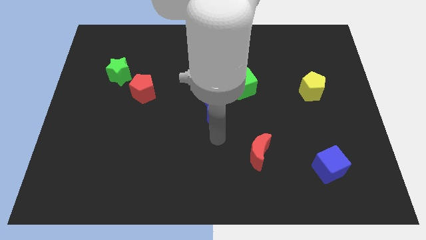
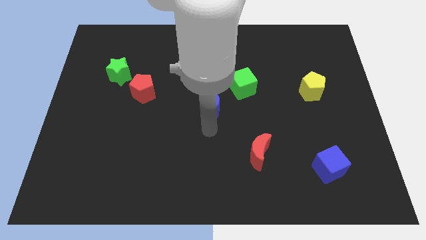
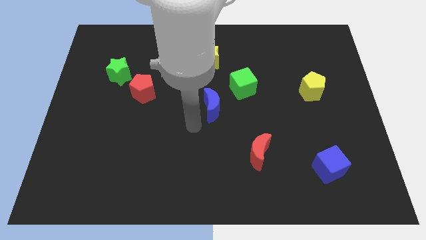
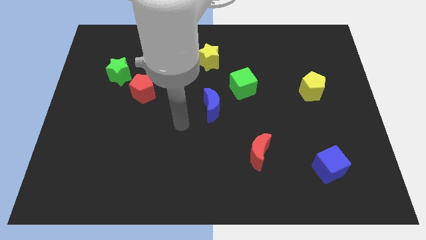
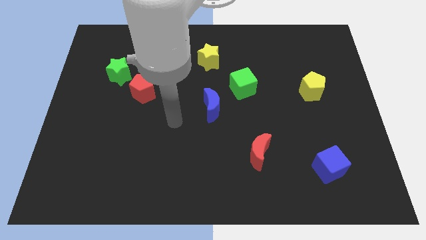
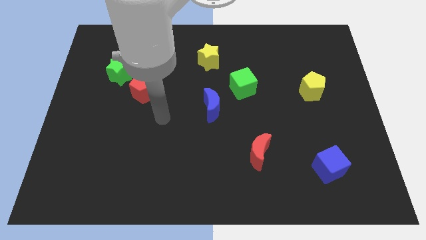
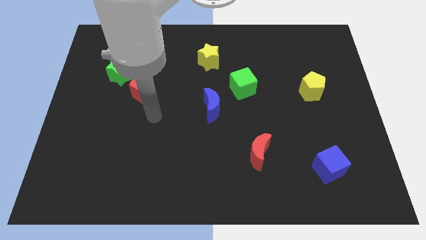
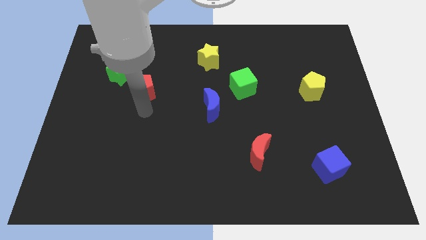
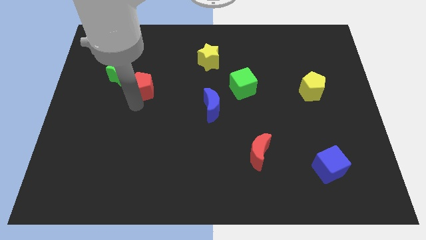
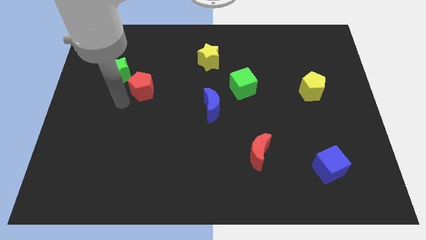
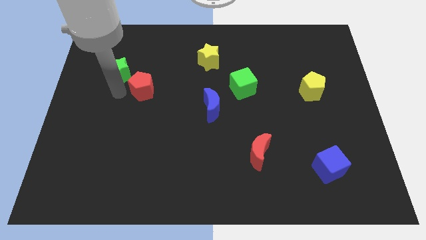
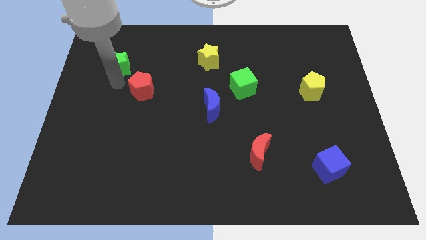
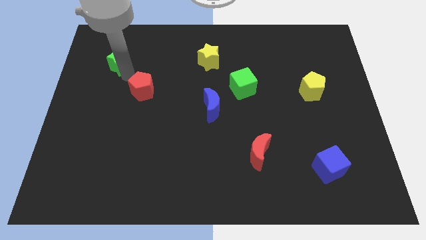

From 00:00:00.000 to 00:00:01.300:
move the red pentagon away from the green star

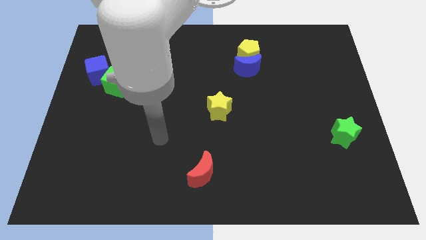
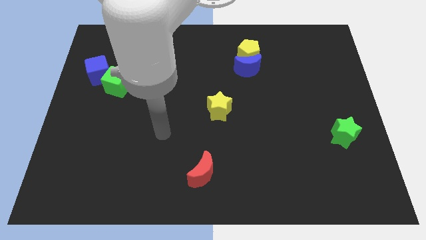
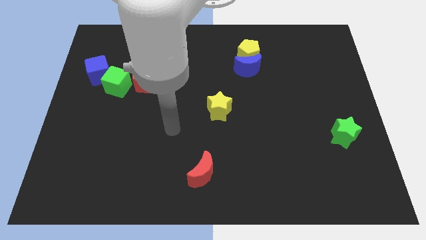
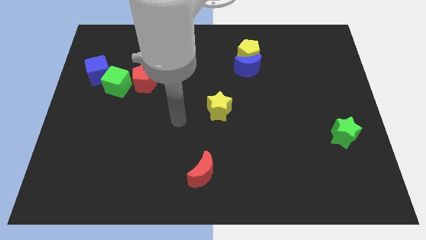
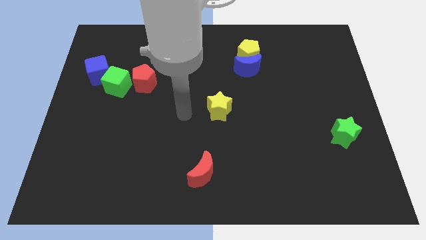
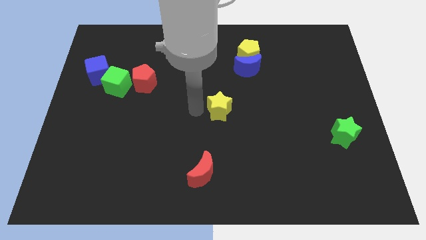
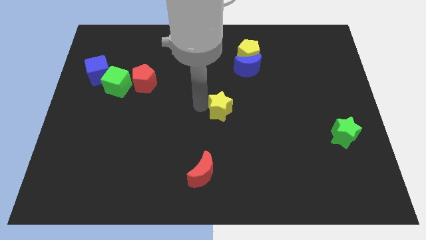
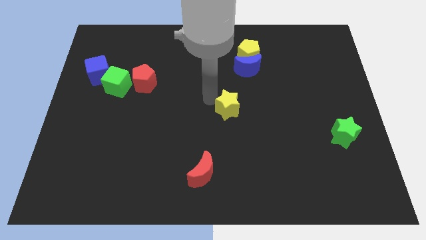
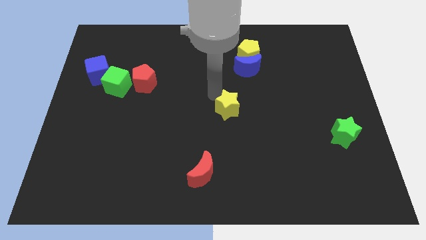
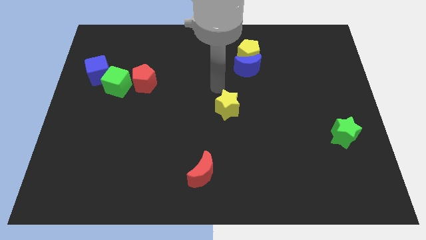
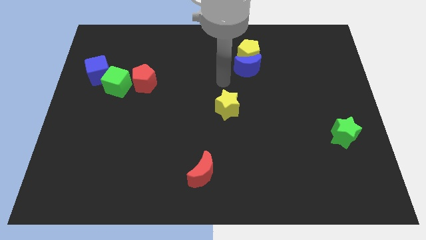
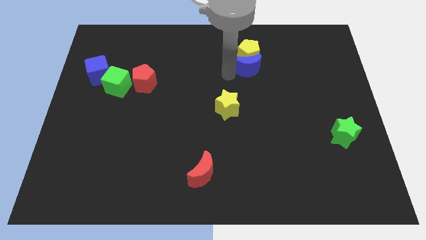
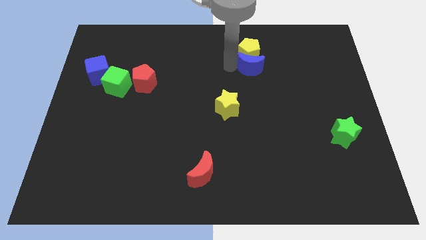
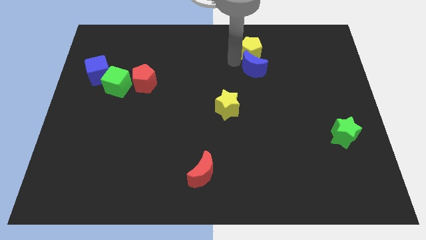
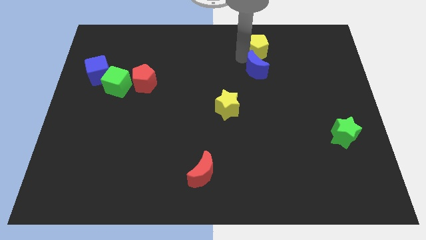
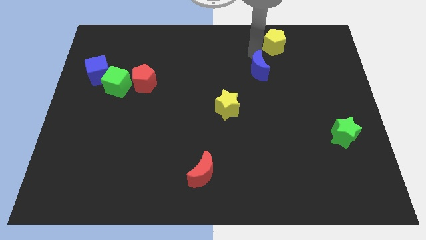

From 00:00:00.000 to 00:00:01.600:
move the blue moon away from the yellow pentagon

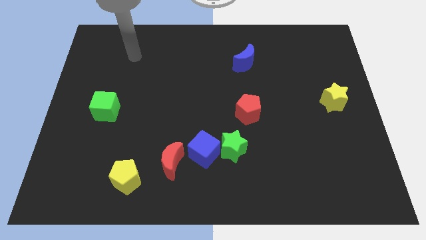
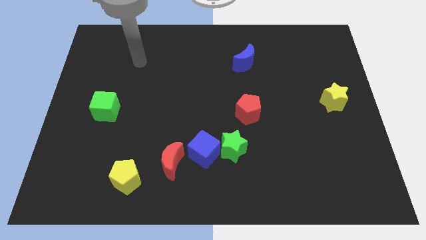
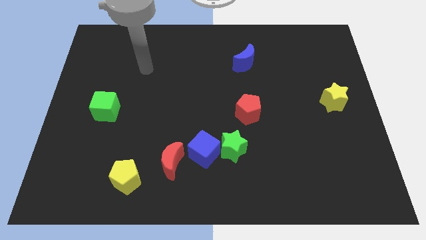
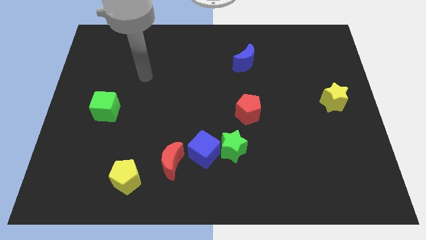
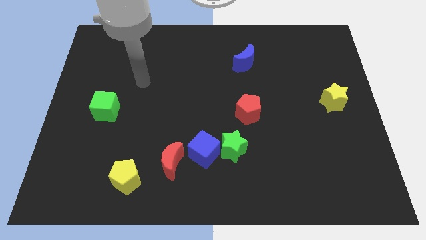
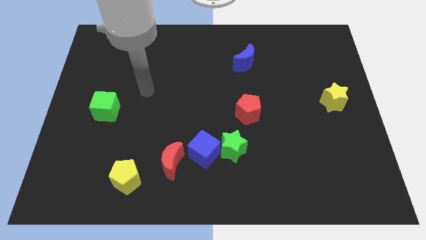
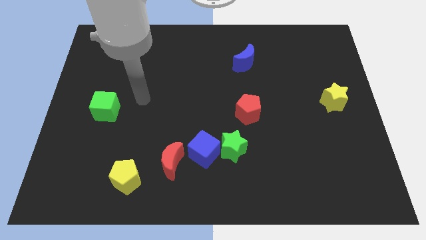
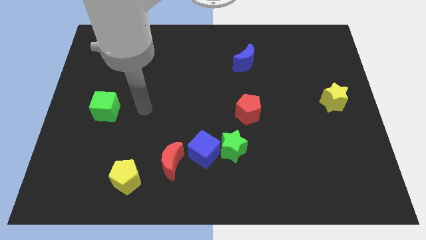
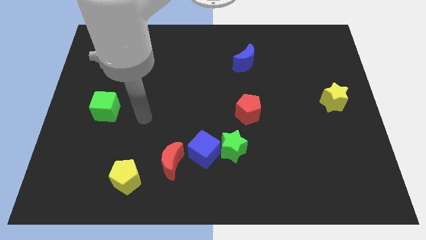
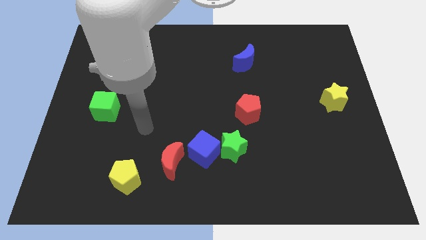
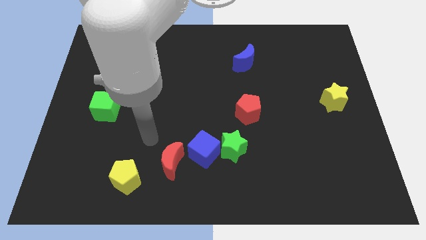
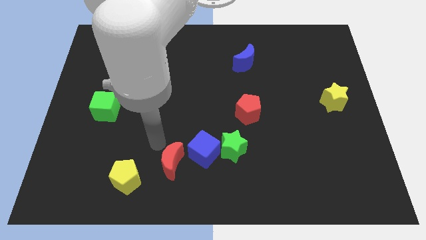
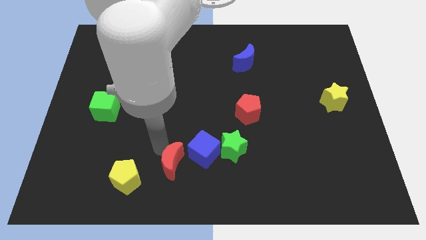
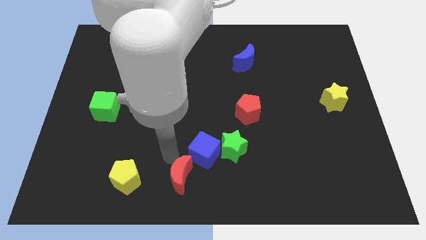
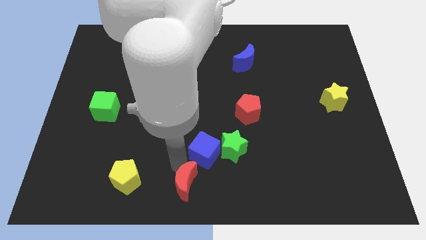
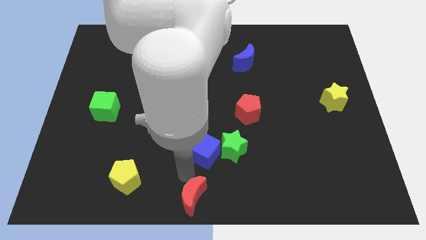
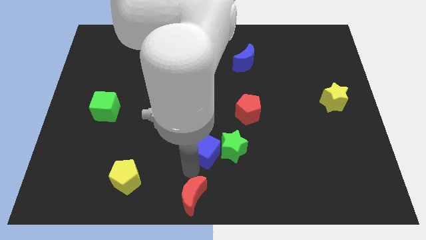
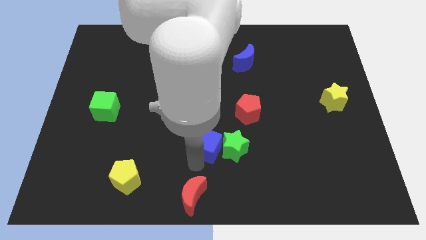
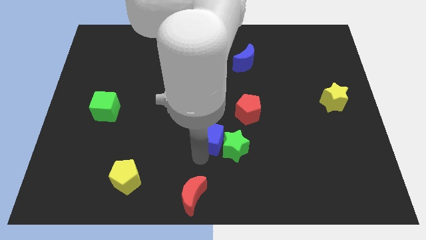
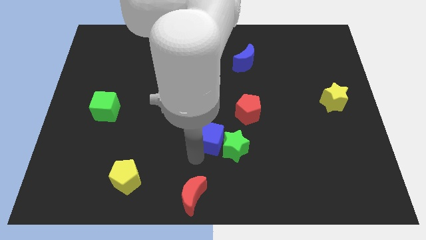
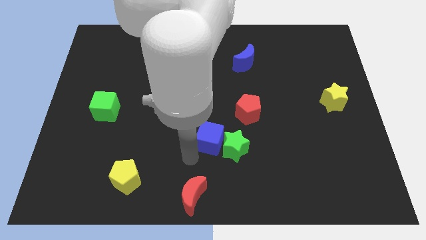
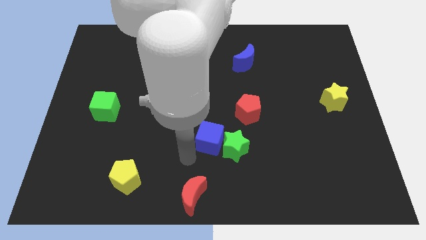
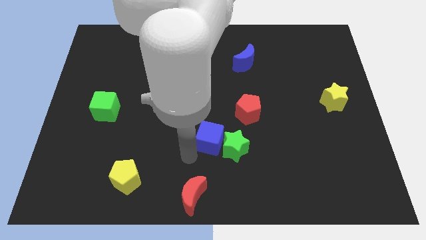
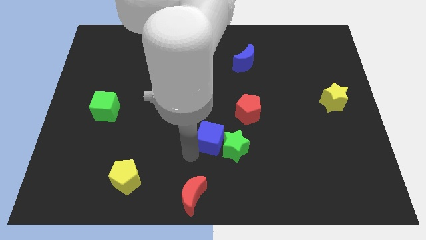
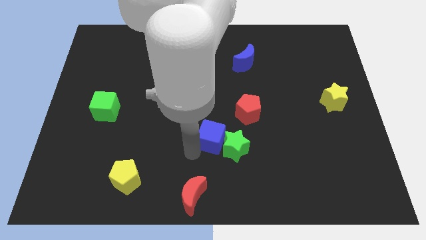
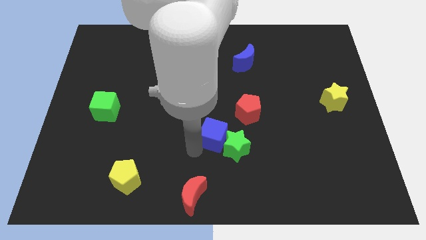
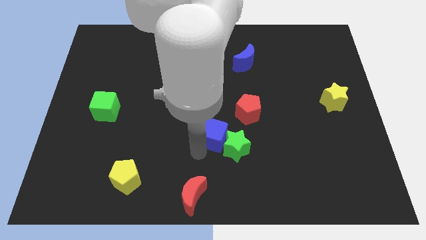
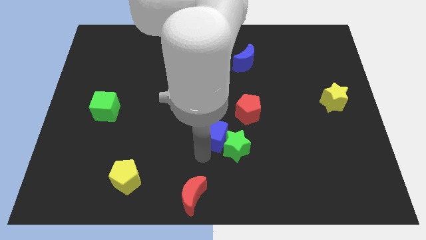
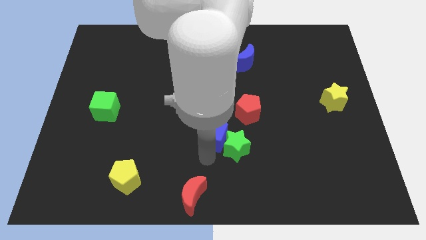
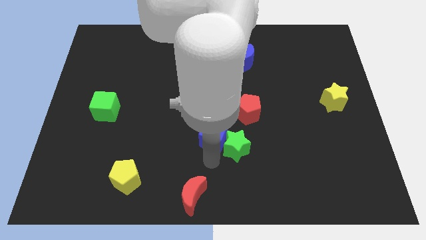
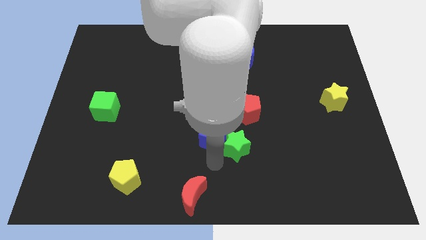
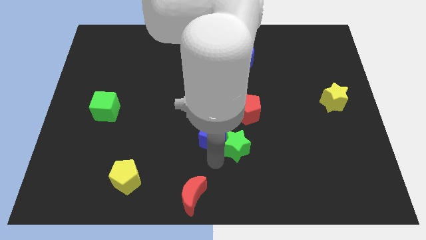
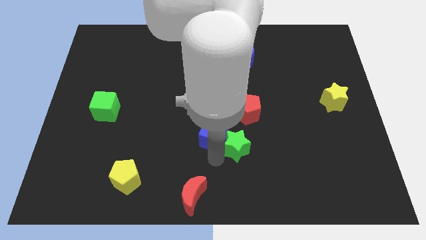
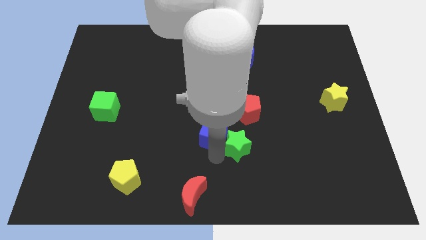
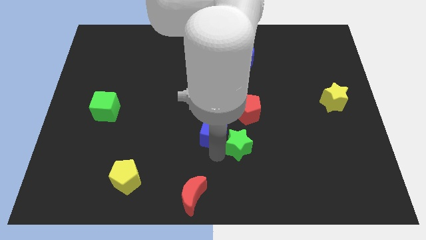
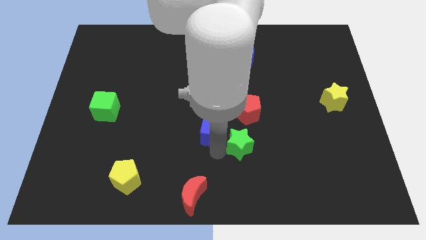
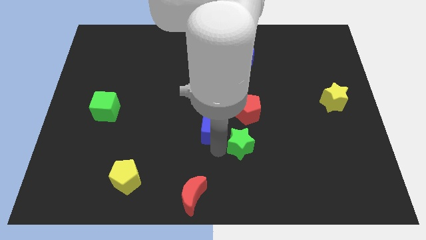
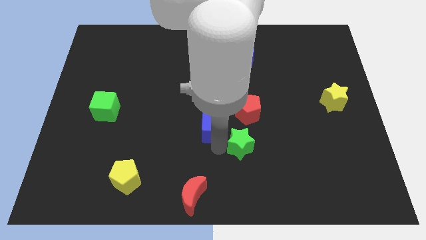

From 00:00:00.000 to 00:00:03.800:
pull the blue cube apart from the green star and red moon

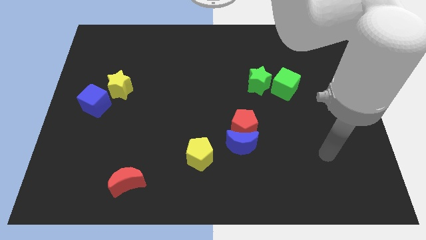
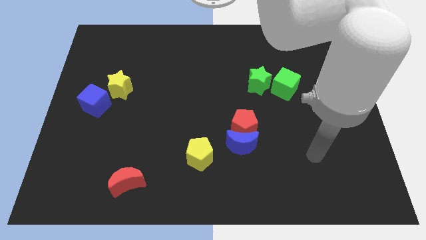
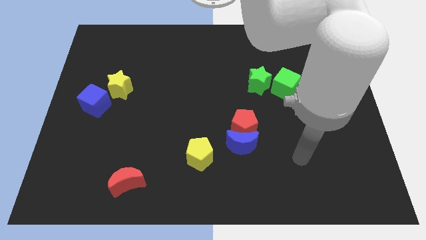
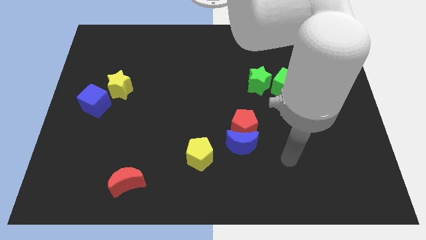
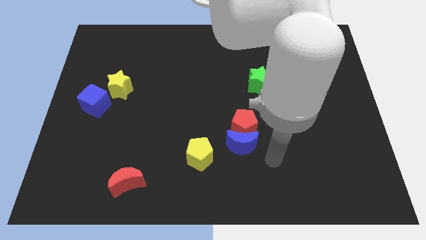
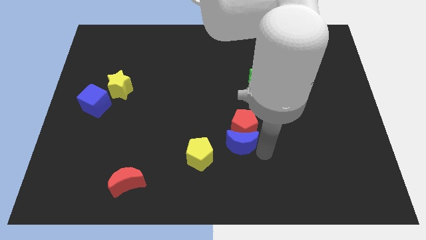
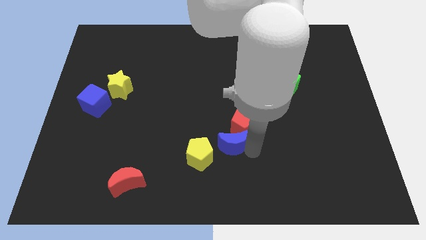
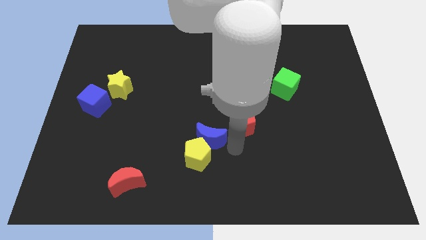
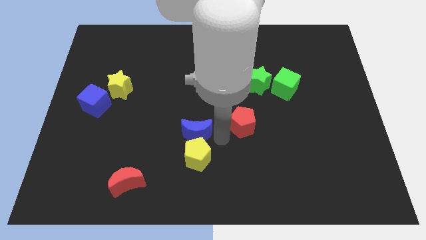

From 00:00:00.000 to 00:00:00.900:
move the red pentagon away from the blue moon

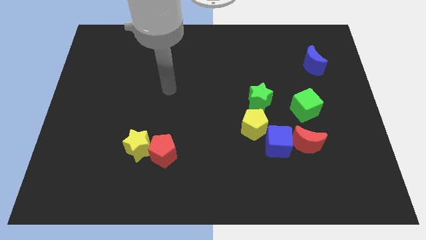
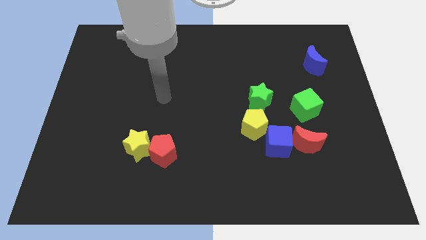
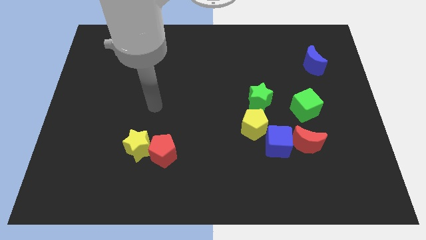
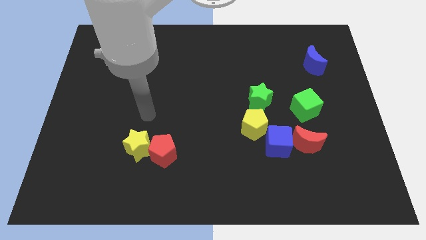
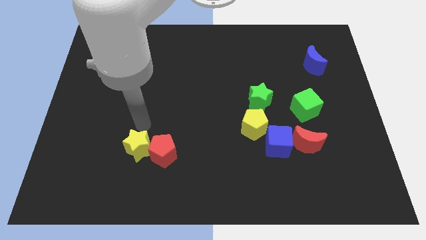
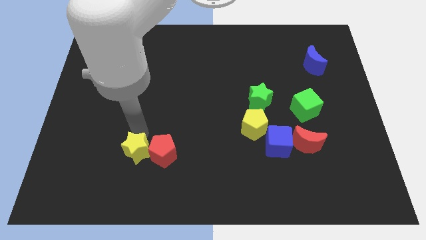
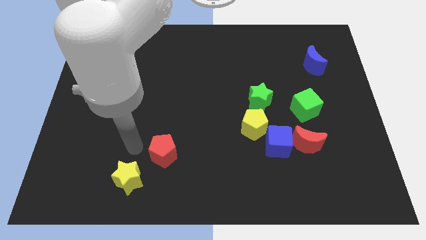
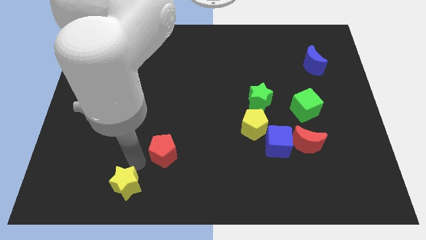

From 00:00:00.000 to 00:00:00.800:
move the red pentagon away from the yellow star

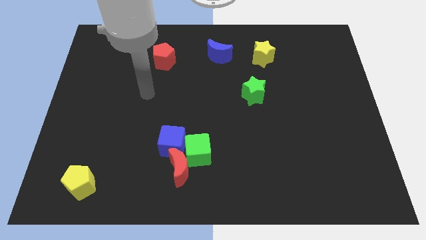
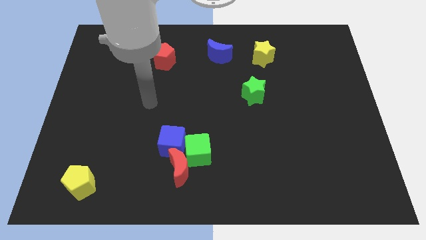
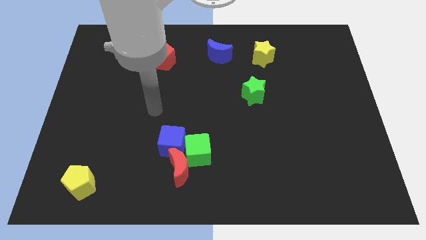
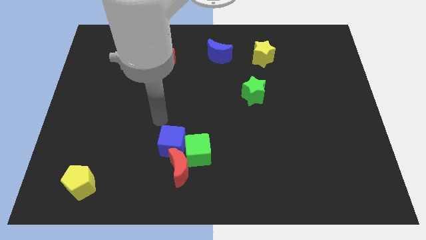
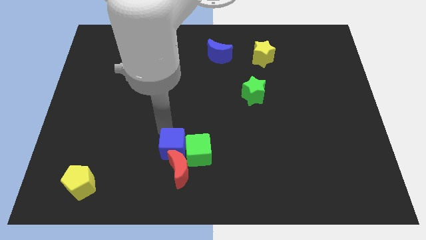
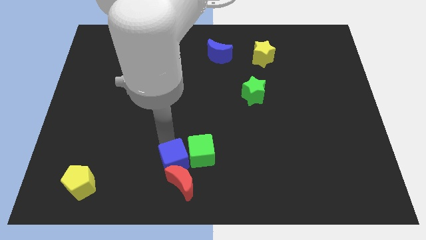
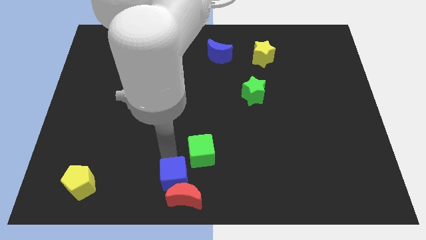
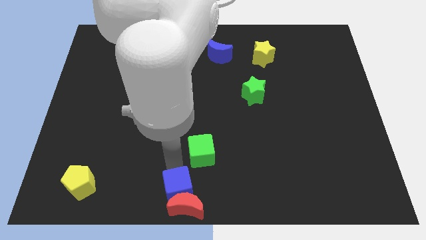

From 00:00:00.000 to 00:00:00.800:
pull the green cube apart from the red moon and blue cube

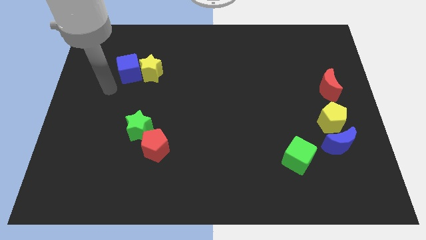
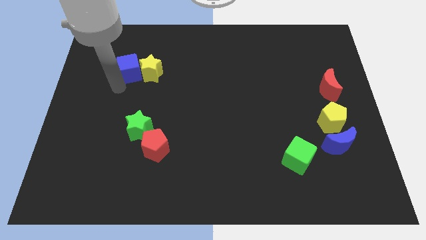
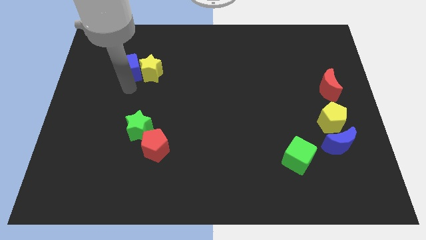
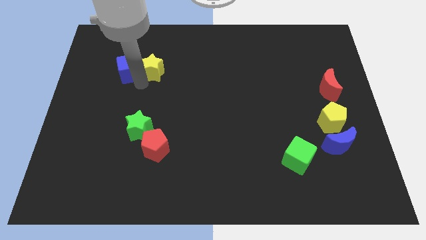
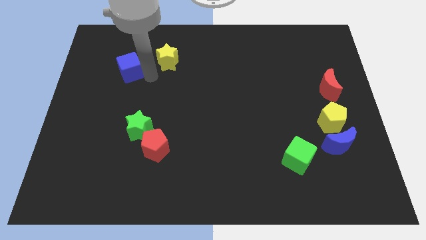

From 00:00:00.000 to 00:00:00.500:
pull the blue cube apart from the yellow star
